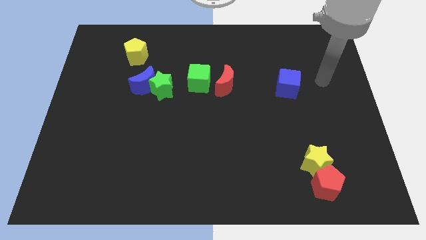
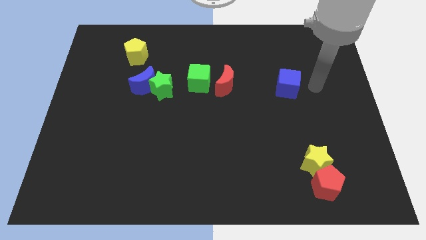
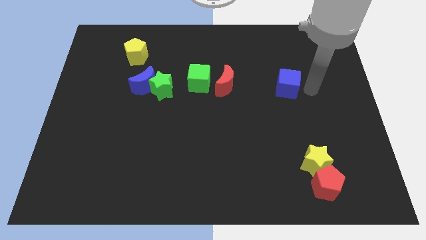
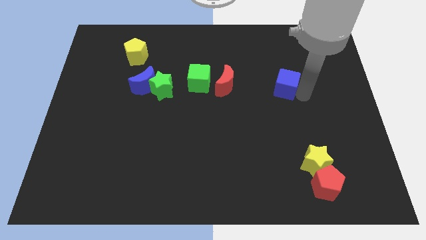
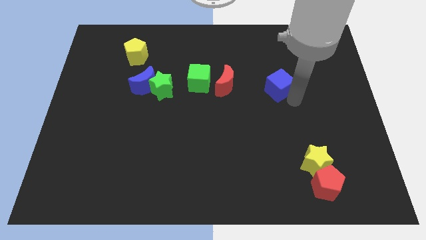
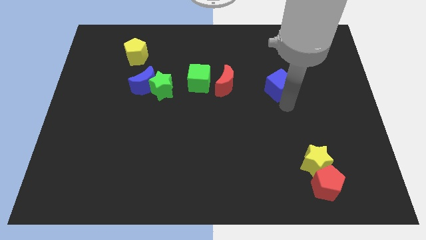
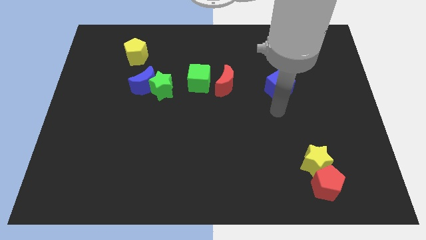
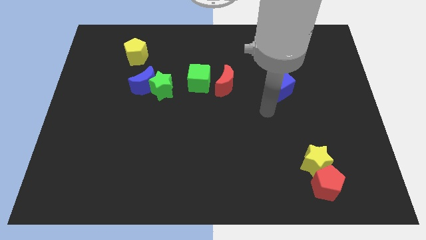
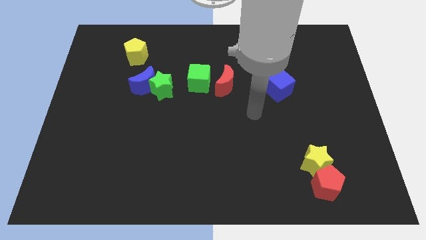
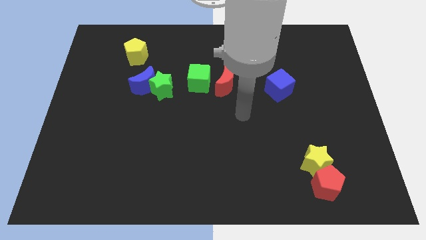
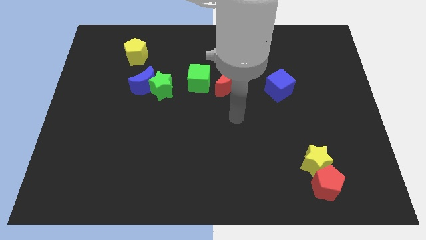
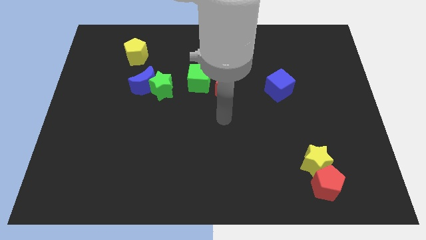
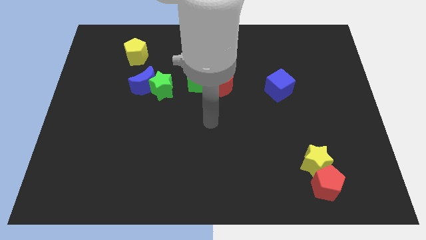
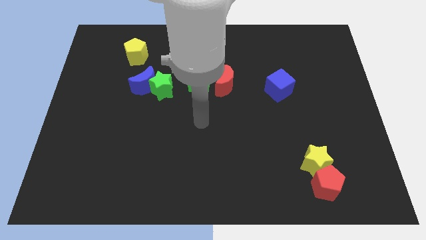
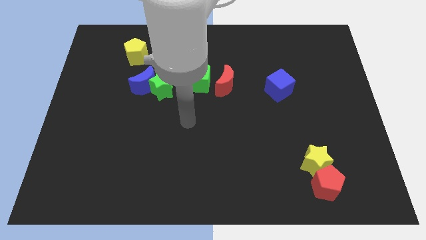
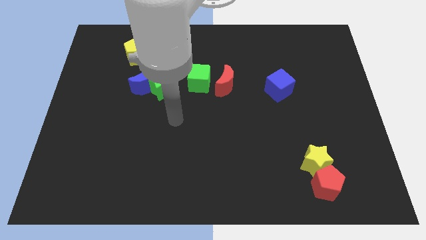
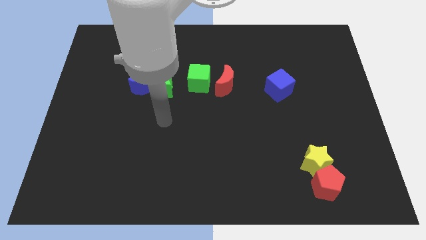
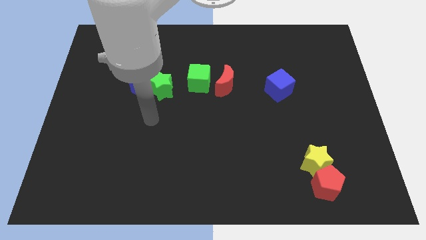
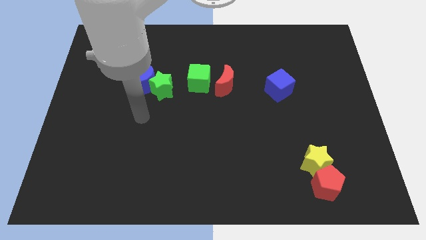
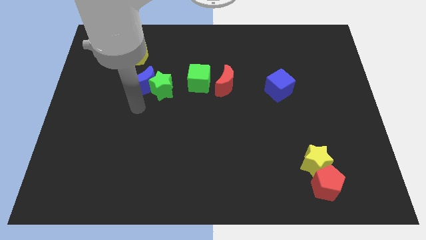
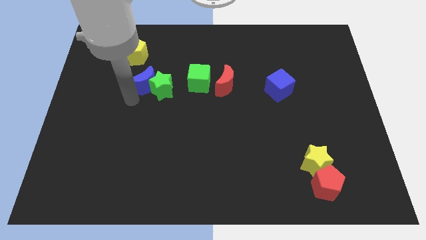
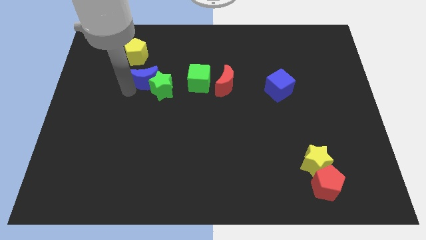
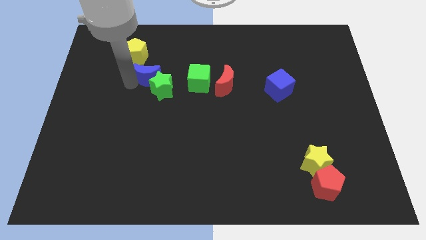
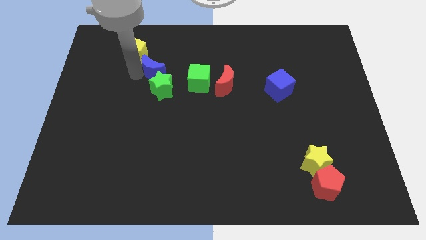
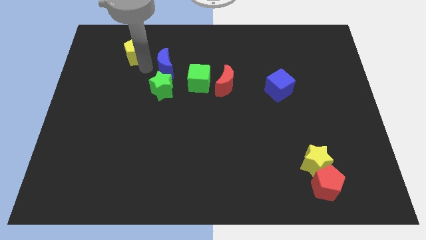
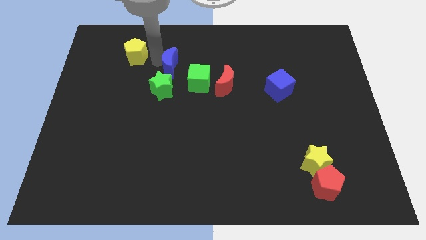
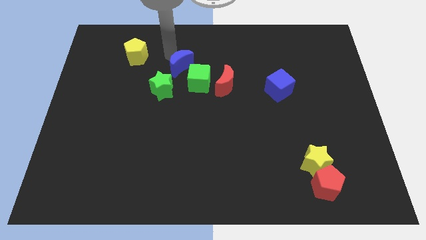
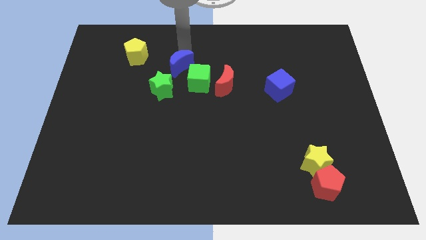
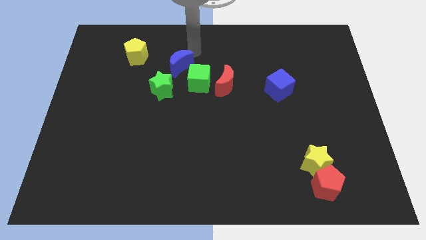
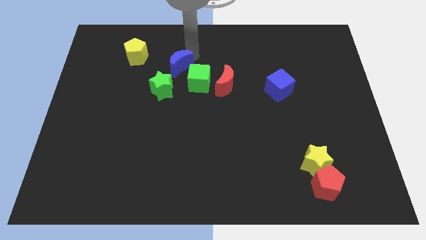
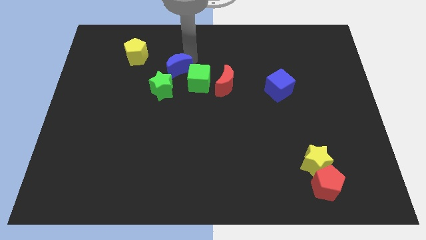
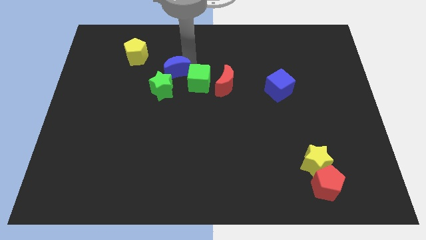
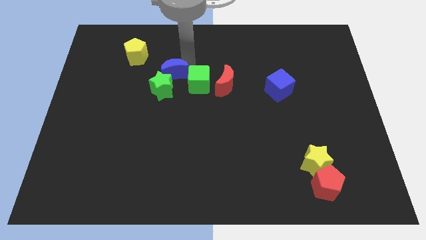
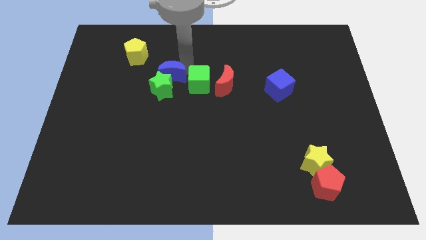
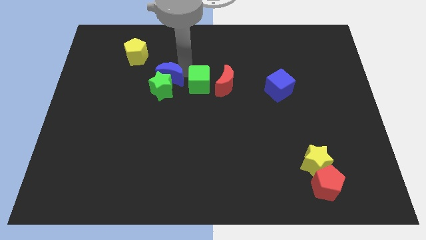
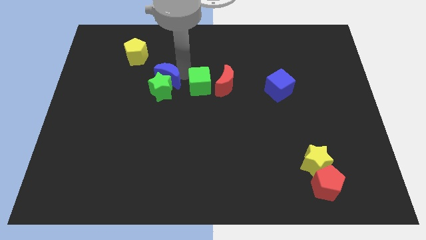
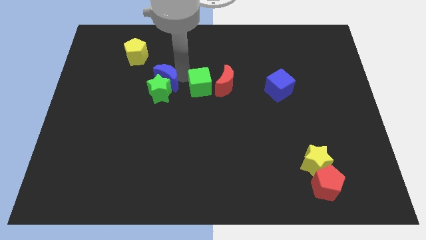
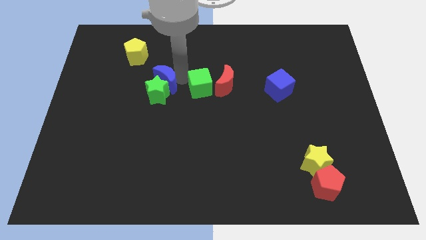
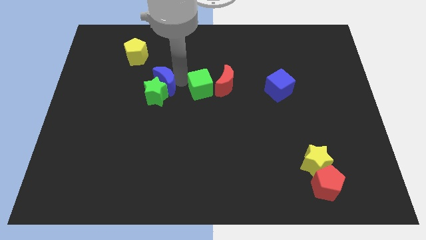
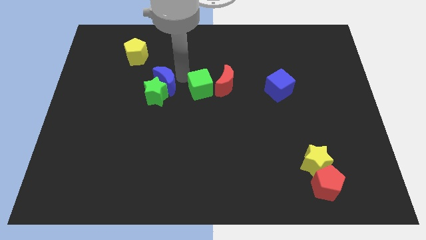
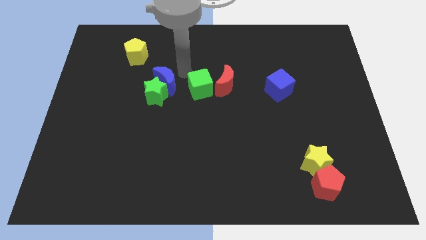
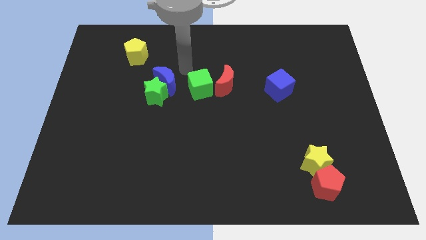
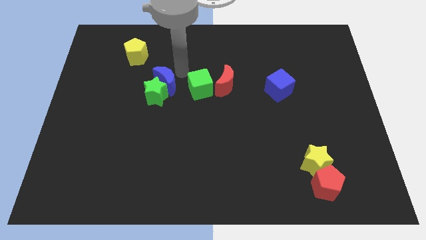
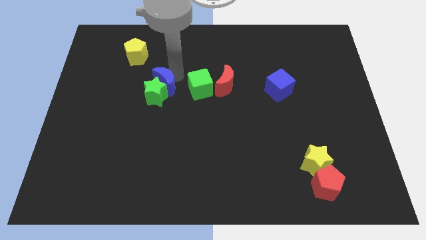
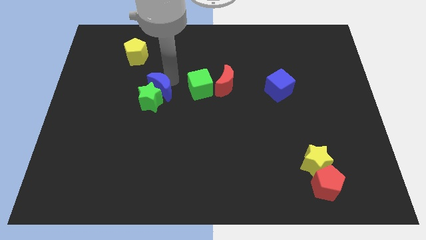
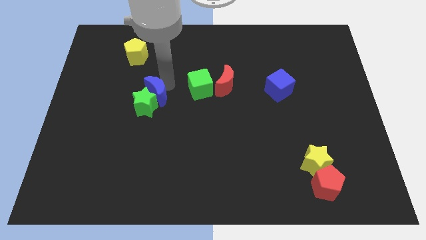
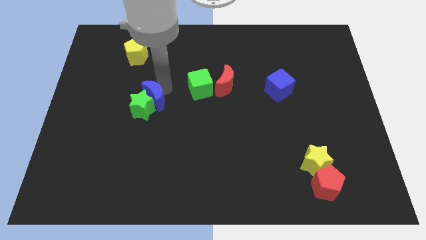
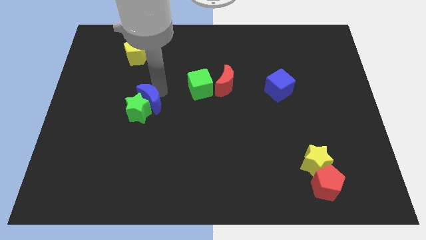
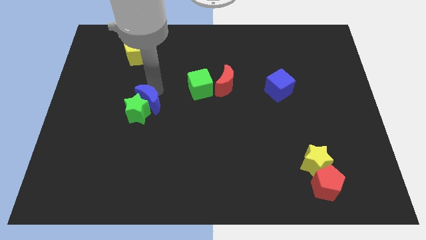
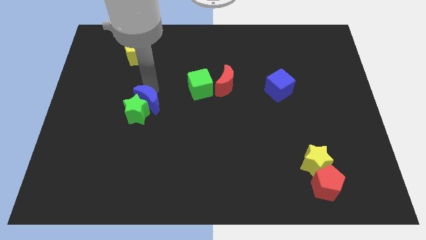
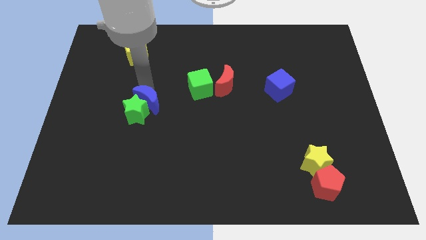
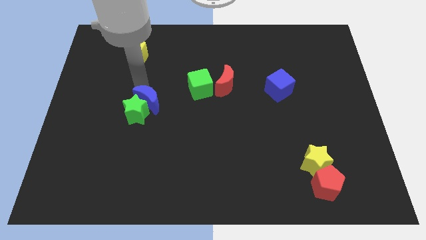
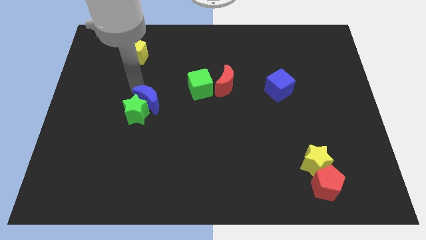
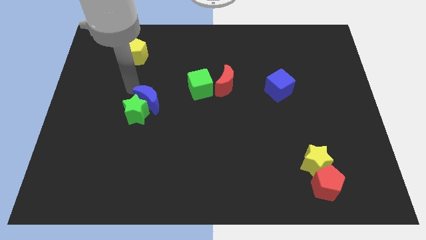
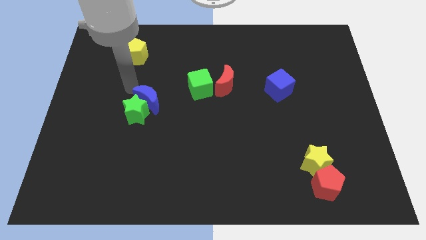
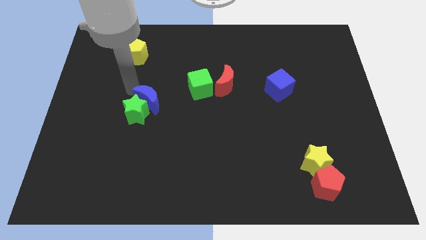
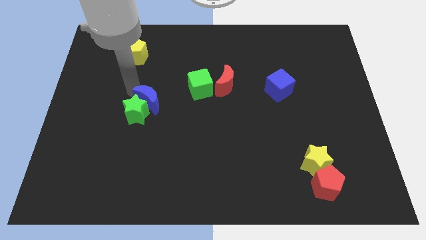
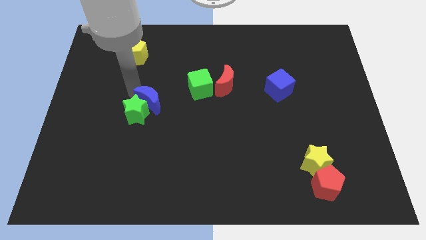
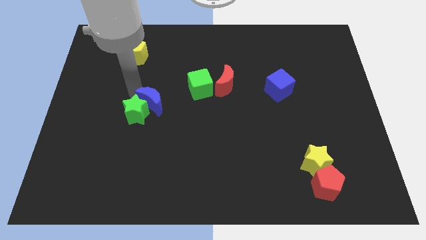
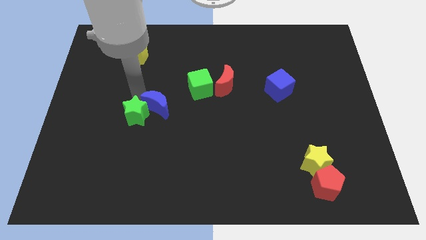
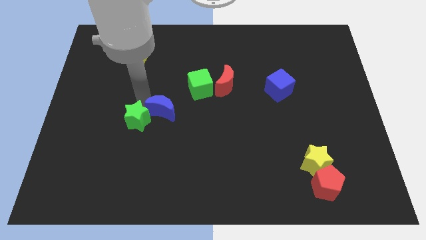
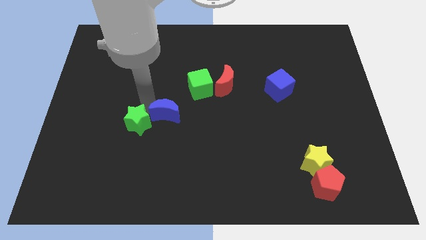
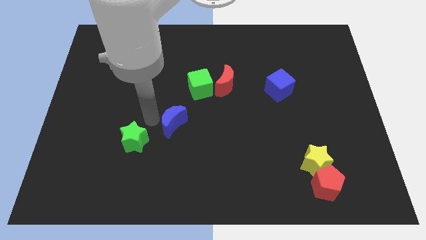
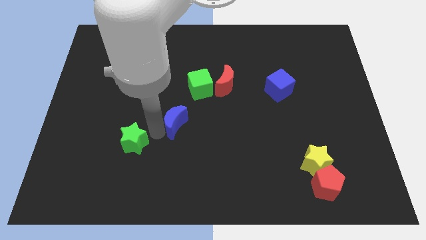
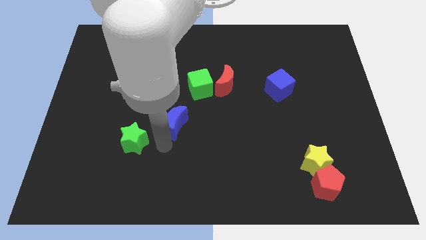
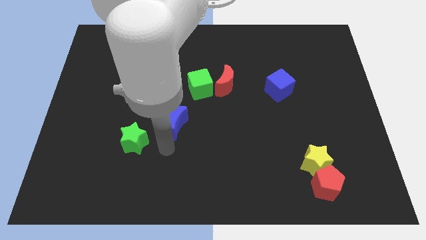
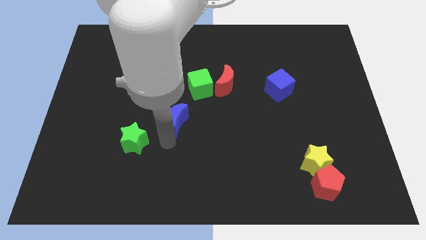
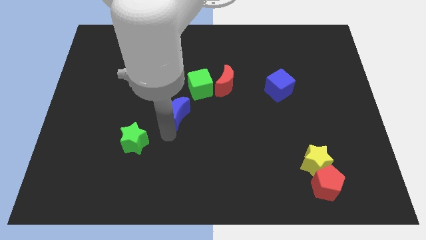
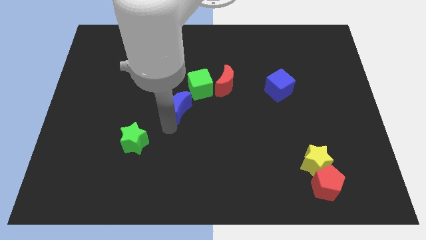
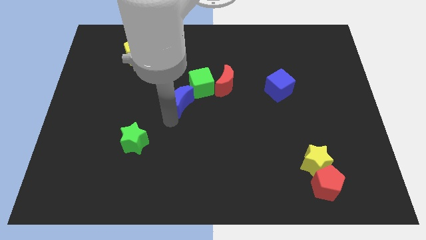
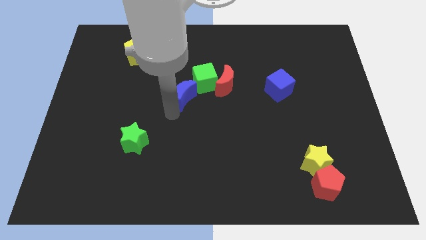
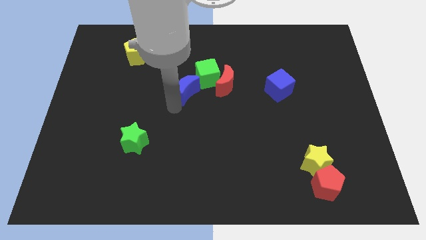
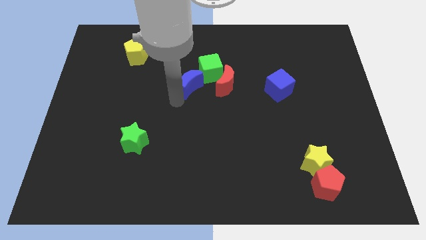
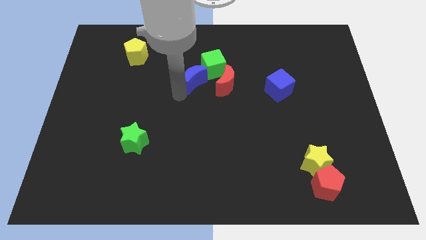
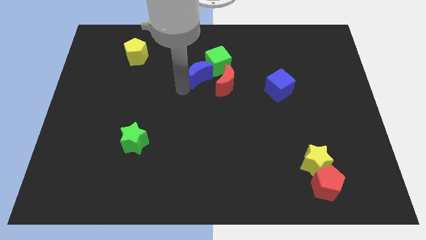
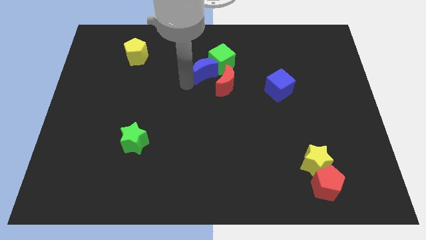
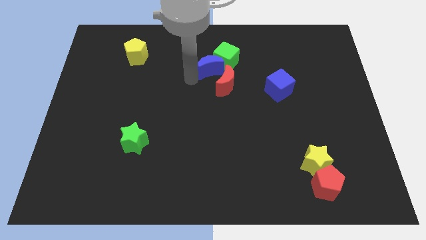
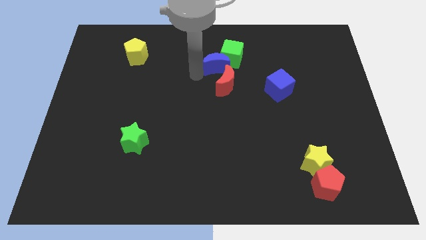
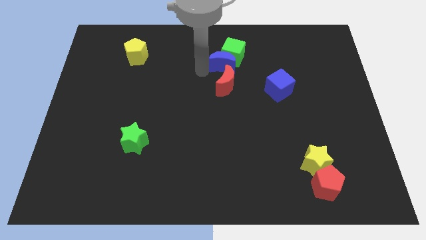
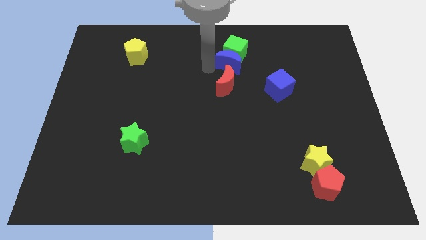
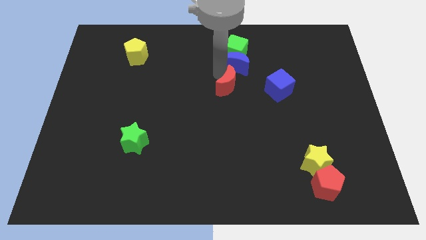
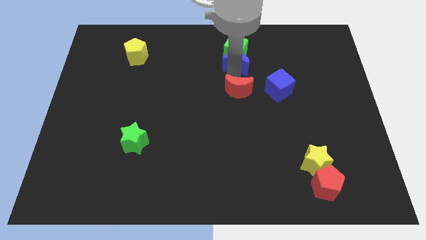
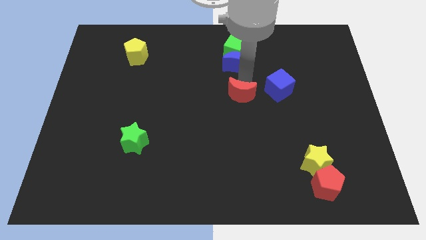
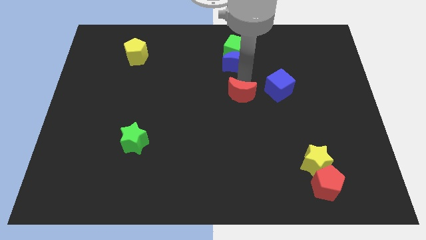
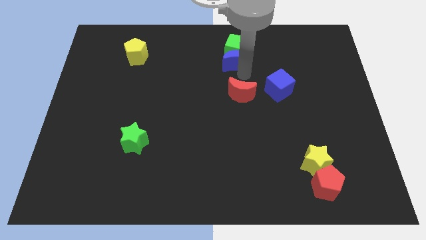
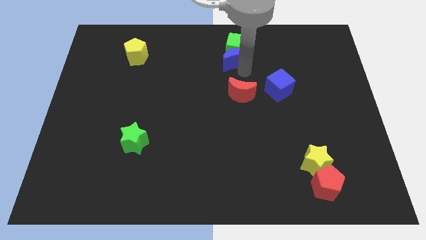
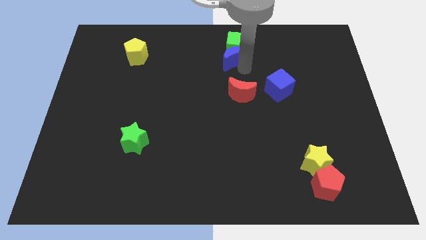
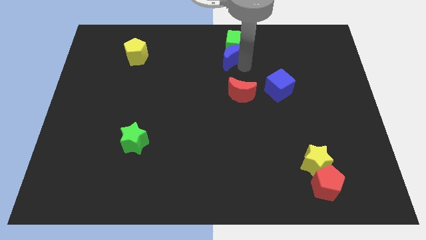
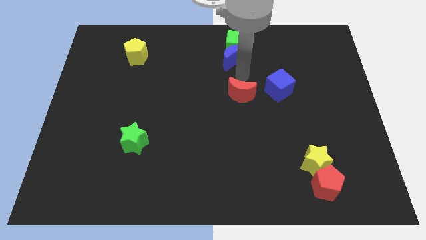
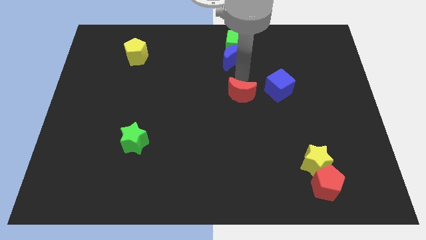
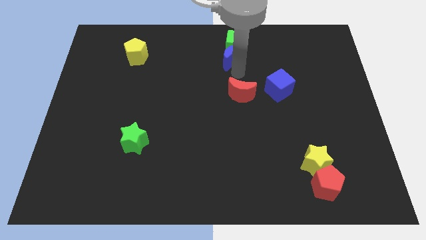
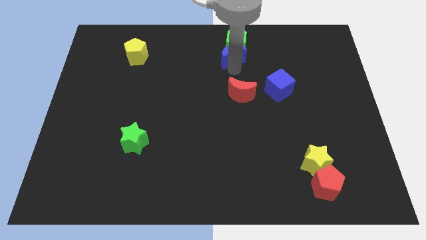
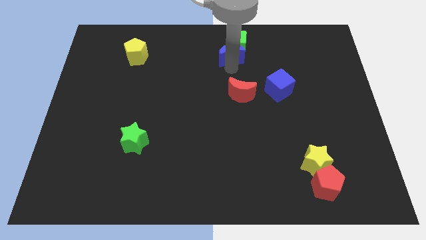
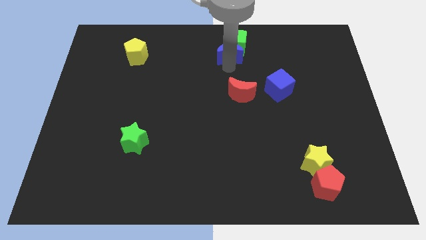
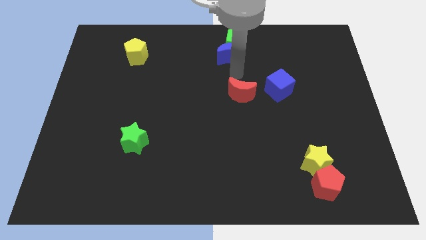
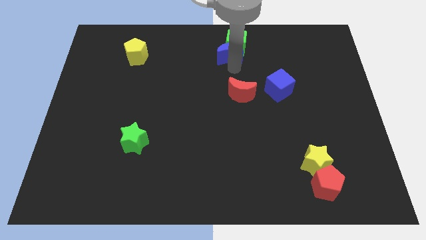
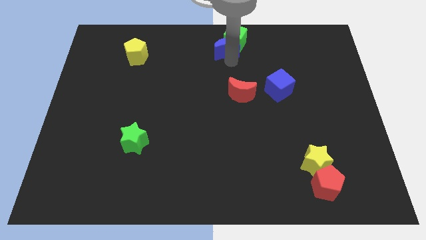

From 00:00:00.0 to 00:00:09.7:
push the blue moon to the top
